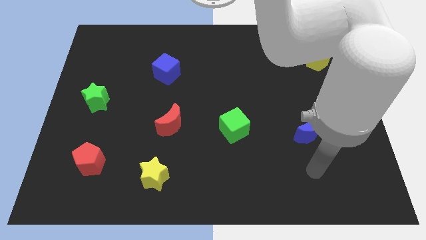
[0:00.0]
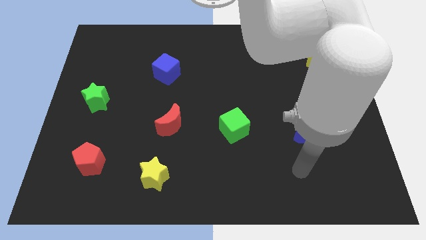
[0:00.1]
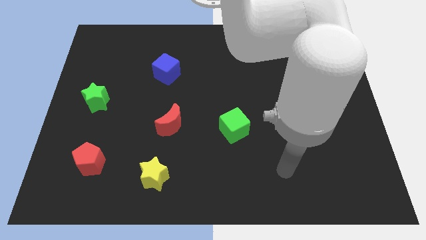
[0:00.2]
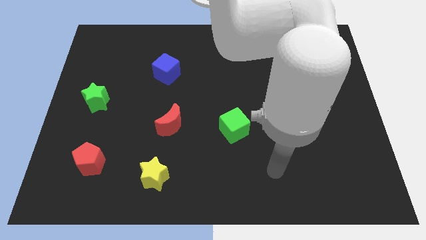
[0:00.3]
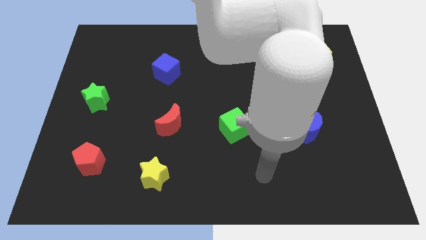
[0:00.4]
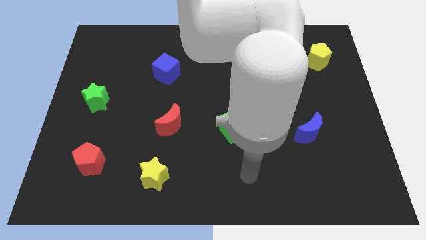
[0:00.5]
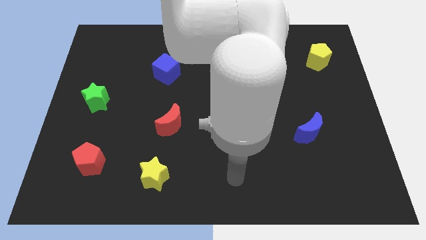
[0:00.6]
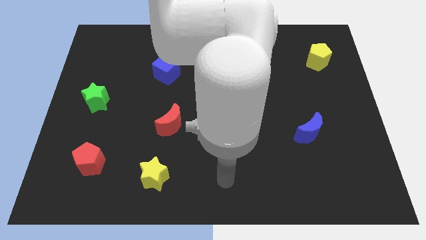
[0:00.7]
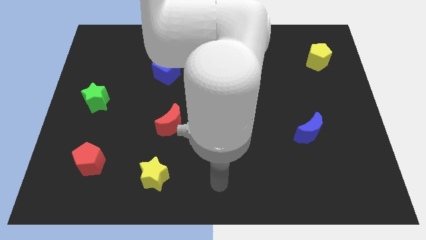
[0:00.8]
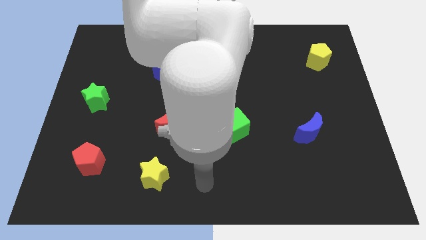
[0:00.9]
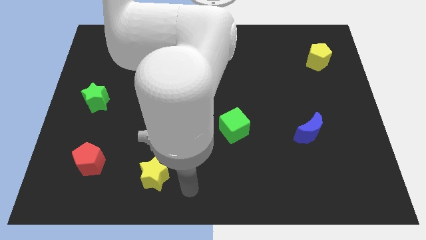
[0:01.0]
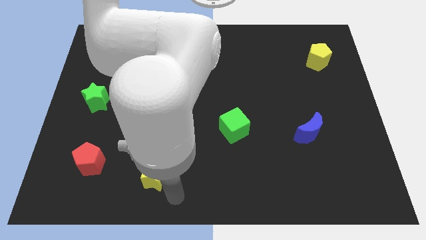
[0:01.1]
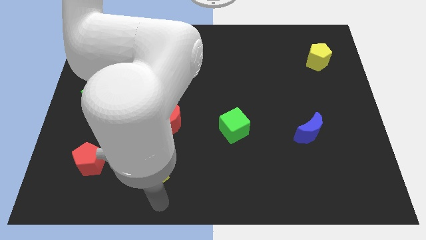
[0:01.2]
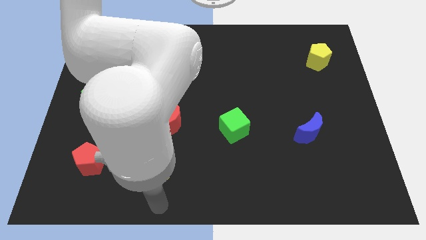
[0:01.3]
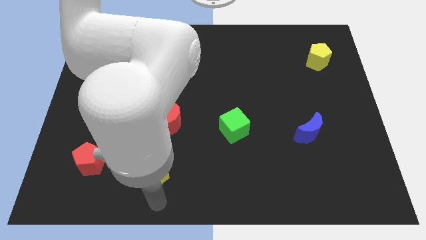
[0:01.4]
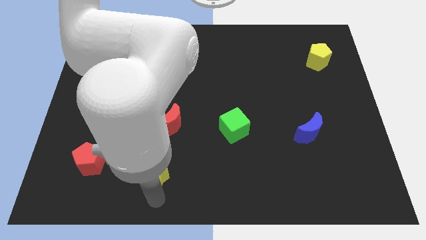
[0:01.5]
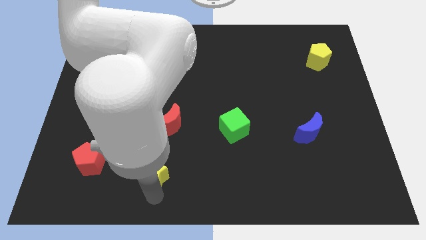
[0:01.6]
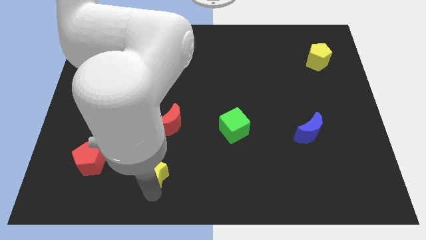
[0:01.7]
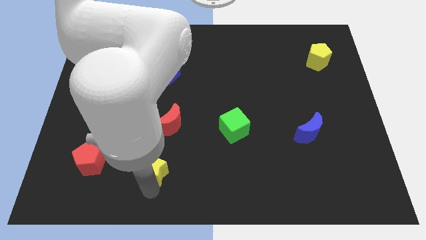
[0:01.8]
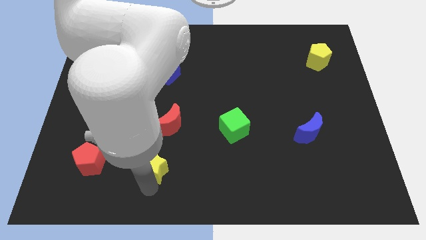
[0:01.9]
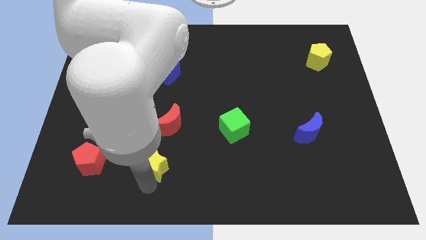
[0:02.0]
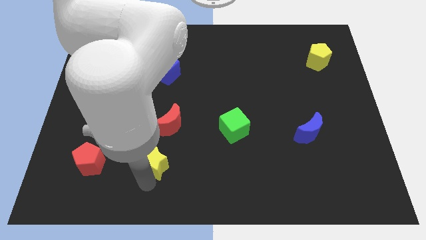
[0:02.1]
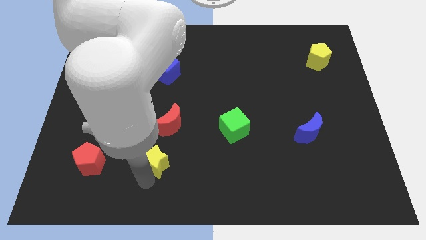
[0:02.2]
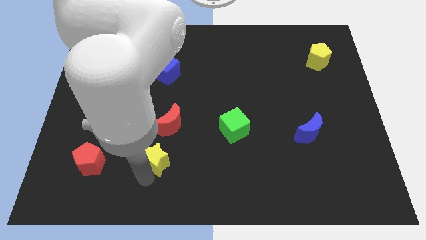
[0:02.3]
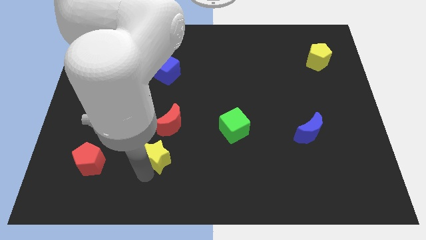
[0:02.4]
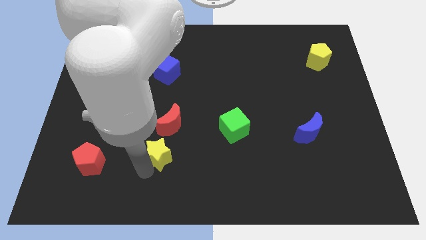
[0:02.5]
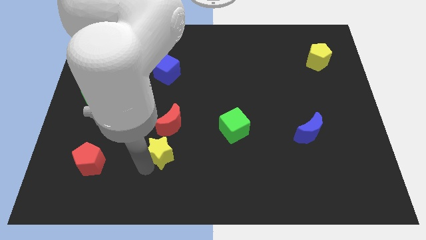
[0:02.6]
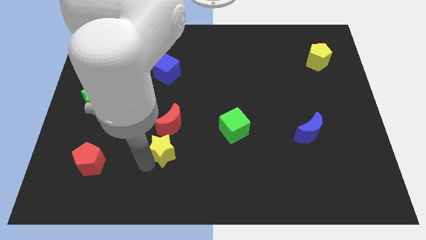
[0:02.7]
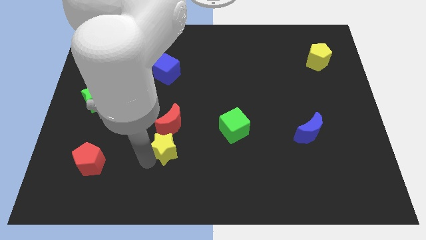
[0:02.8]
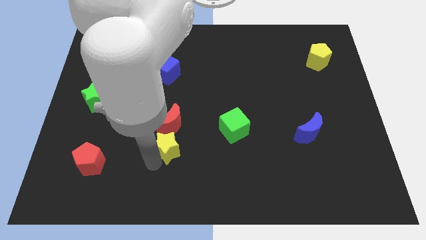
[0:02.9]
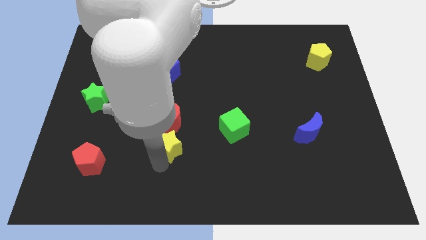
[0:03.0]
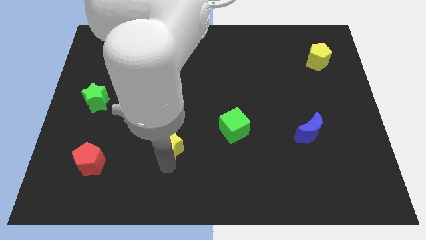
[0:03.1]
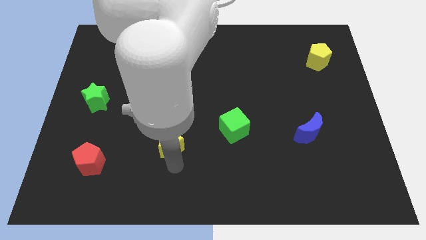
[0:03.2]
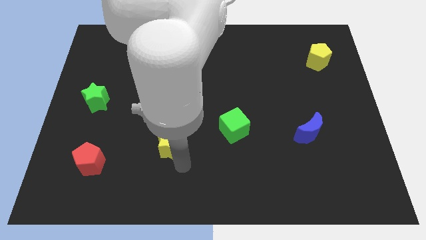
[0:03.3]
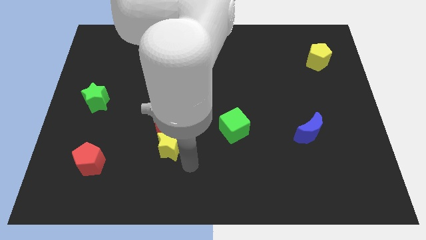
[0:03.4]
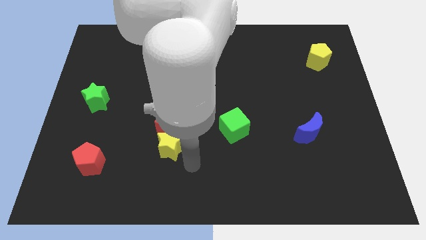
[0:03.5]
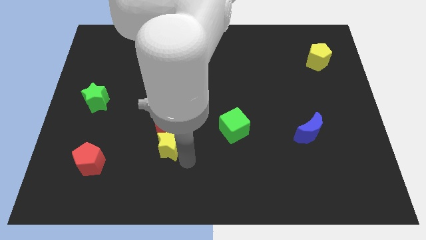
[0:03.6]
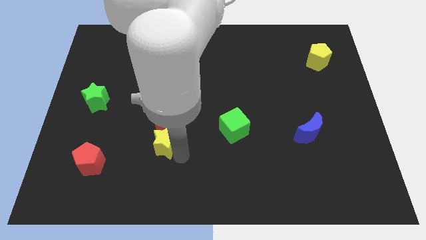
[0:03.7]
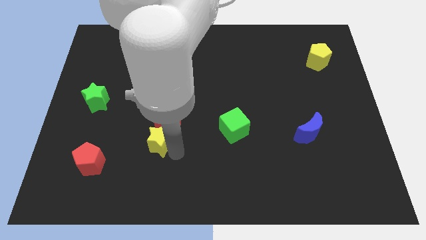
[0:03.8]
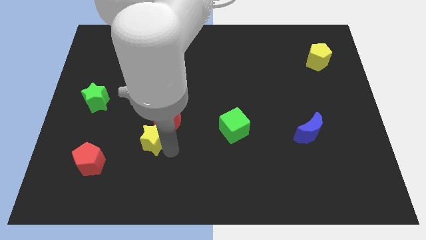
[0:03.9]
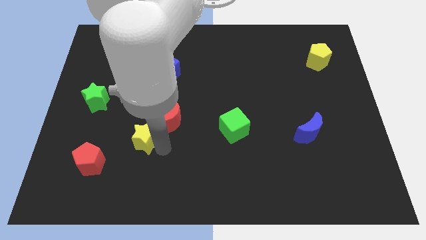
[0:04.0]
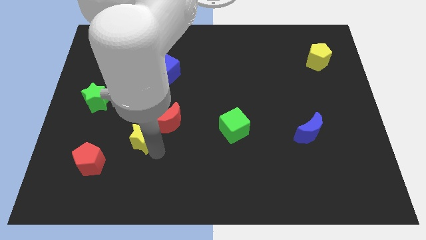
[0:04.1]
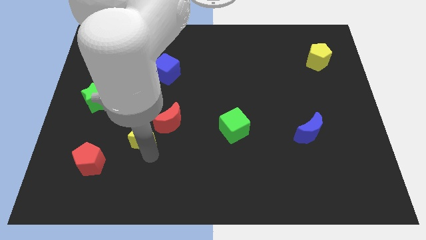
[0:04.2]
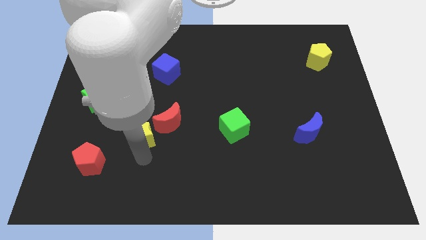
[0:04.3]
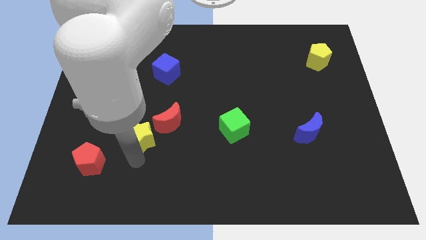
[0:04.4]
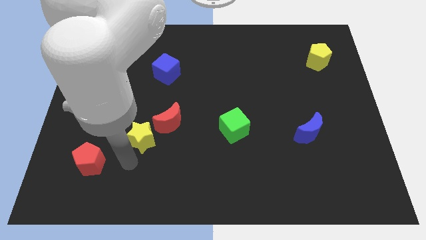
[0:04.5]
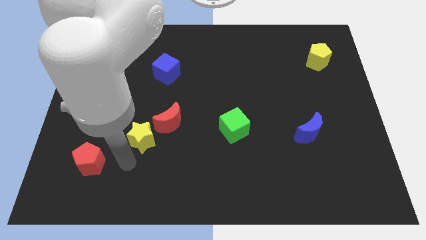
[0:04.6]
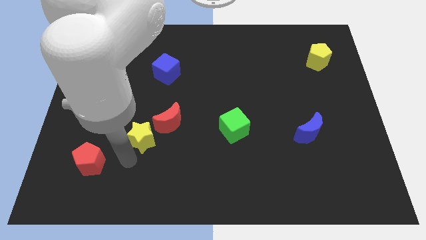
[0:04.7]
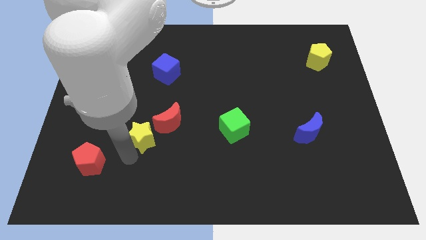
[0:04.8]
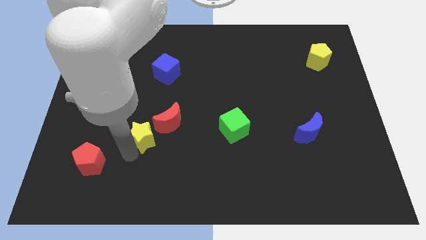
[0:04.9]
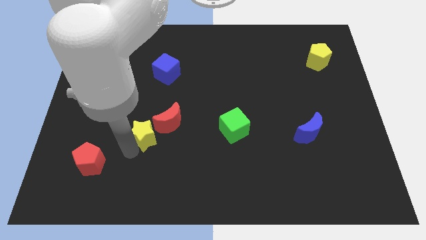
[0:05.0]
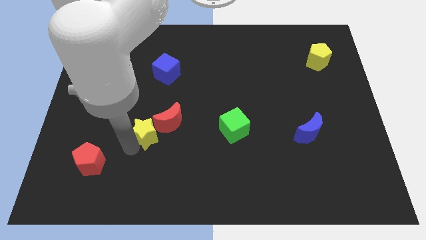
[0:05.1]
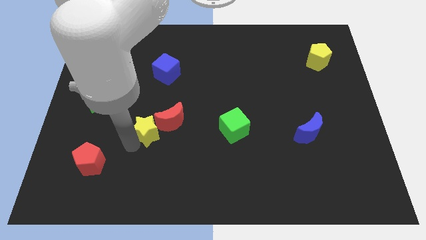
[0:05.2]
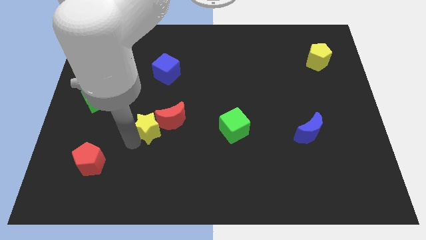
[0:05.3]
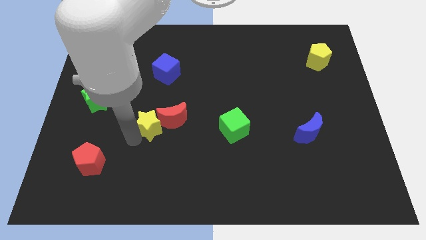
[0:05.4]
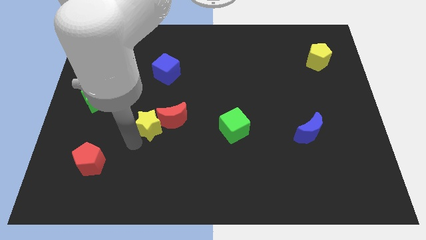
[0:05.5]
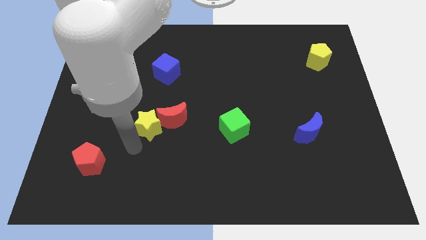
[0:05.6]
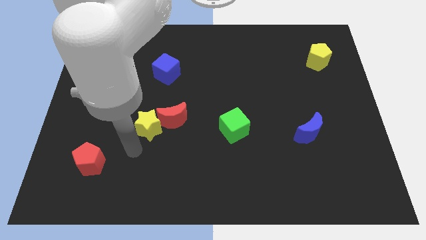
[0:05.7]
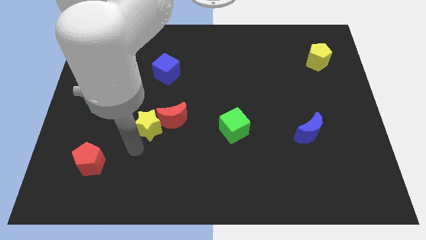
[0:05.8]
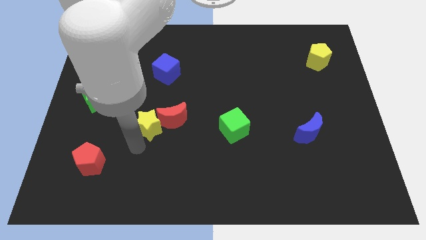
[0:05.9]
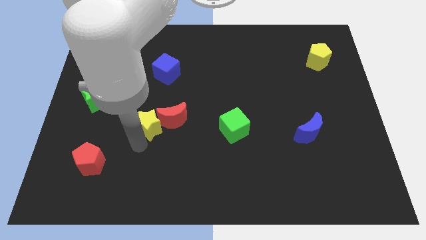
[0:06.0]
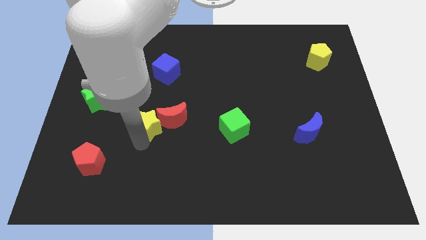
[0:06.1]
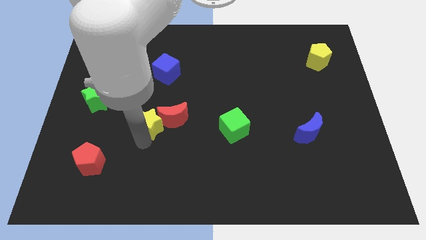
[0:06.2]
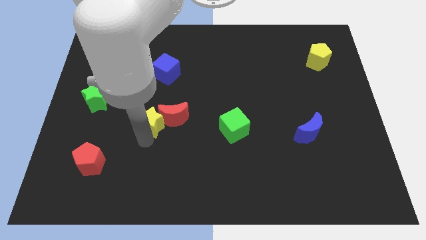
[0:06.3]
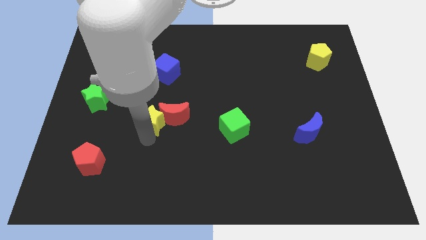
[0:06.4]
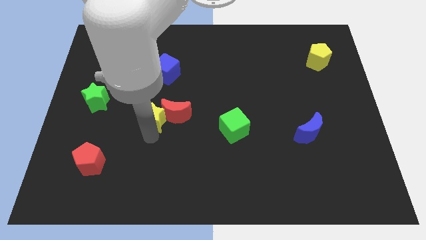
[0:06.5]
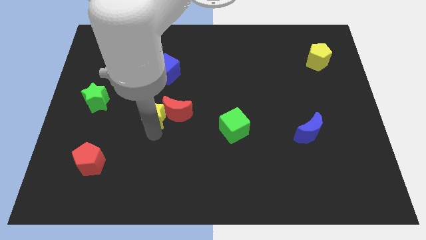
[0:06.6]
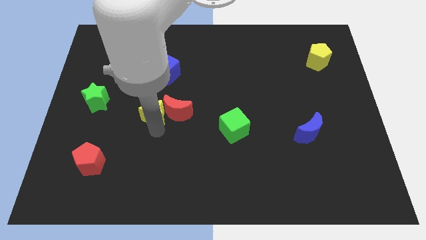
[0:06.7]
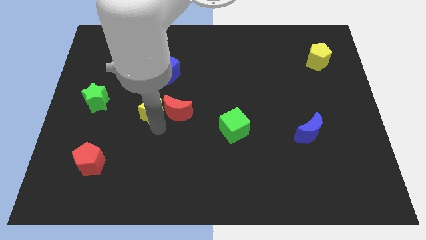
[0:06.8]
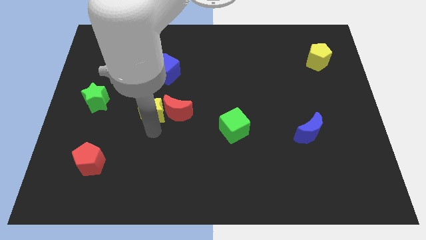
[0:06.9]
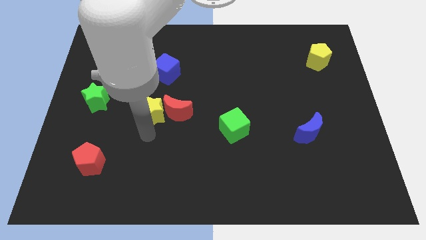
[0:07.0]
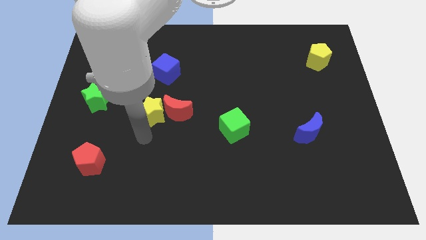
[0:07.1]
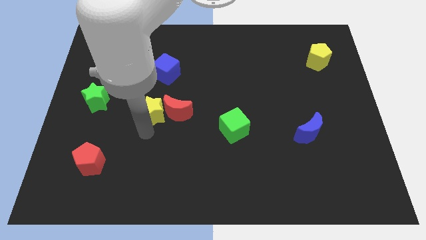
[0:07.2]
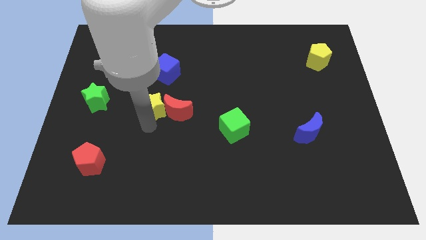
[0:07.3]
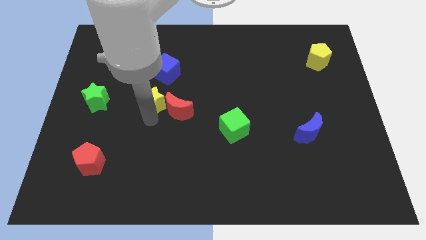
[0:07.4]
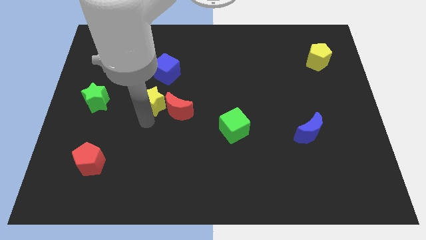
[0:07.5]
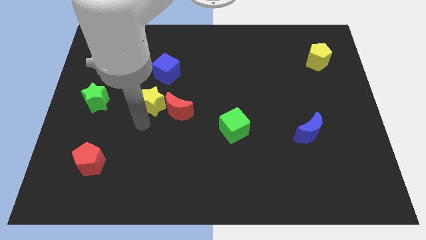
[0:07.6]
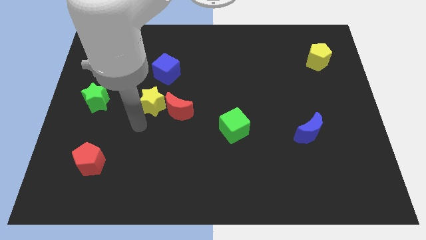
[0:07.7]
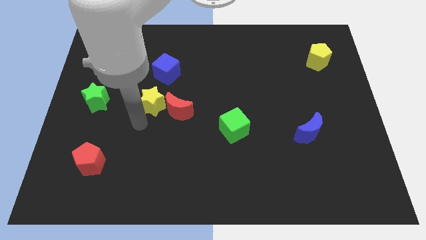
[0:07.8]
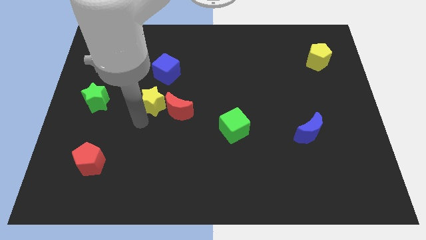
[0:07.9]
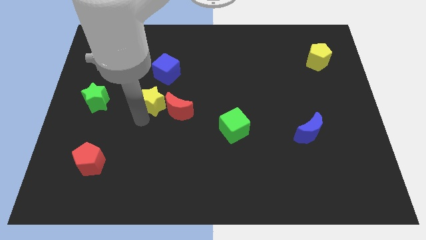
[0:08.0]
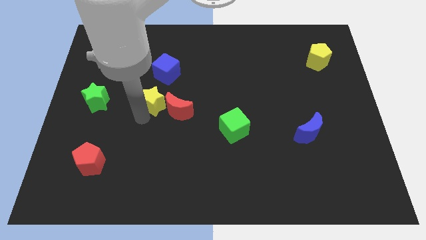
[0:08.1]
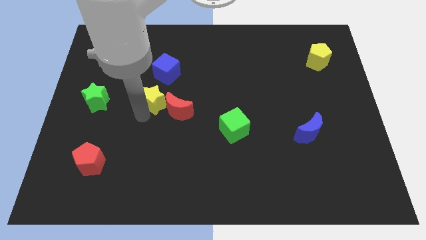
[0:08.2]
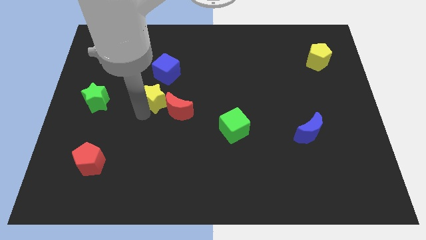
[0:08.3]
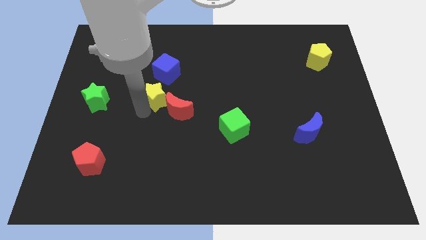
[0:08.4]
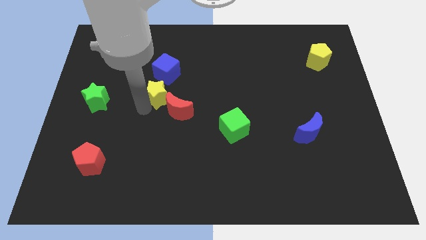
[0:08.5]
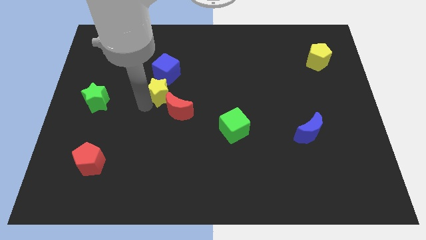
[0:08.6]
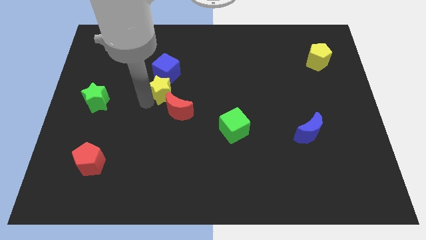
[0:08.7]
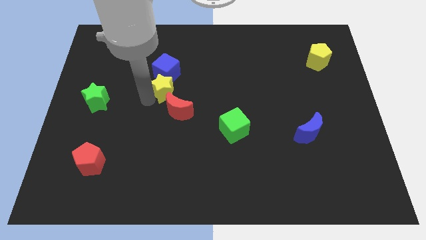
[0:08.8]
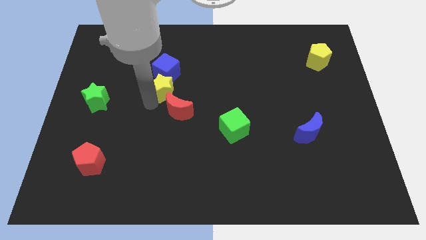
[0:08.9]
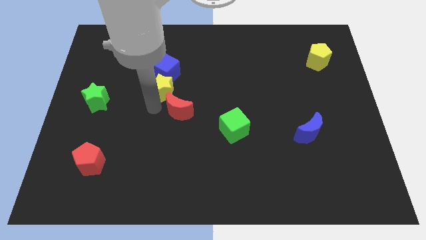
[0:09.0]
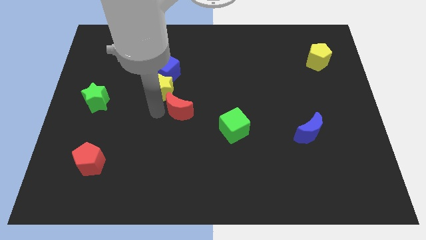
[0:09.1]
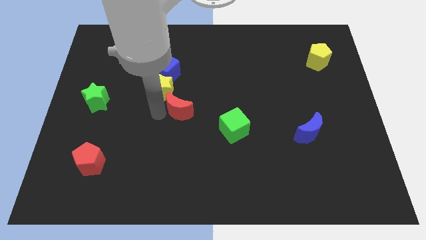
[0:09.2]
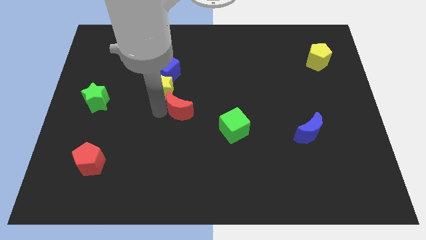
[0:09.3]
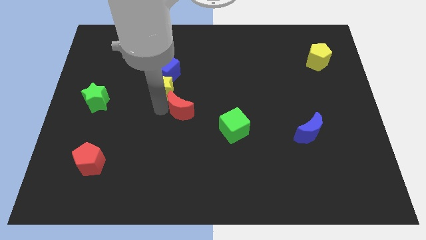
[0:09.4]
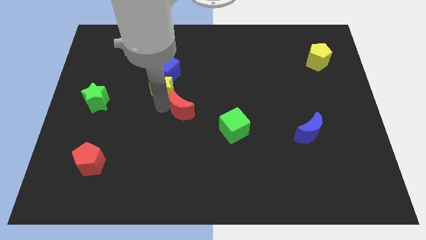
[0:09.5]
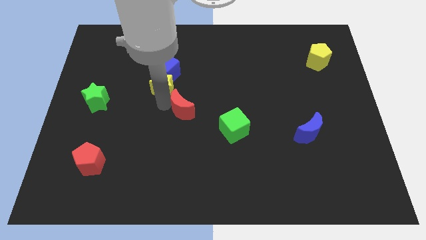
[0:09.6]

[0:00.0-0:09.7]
move the yellow star towards the blue cube
